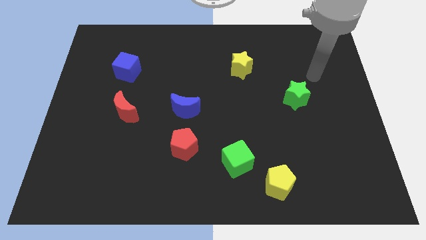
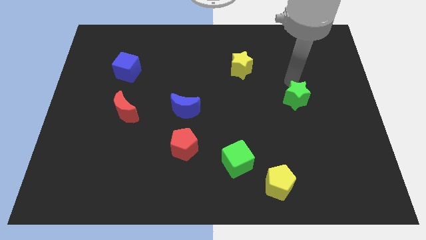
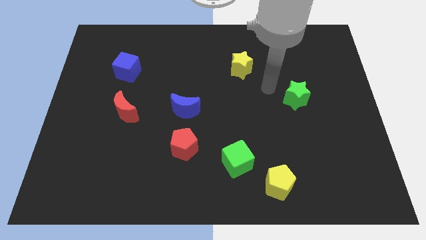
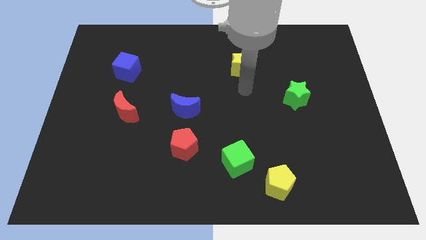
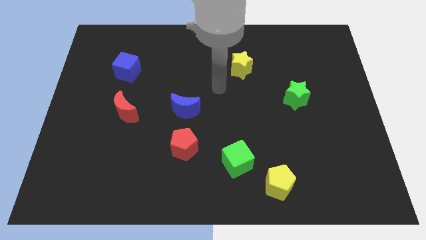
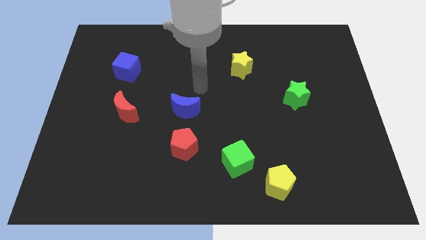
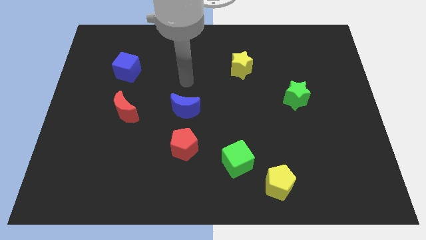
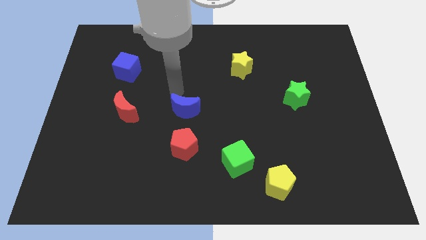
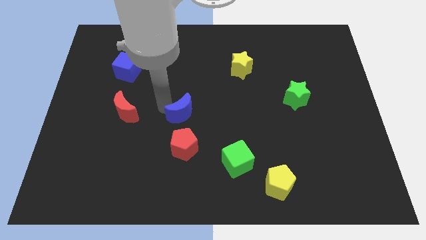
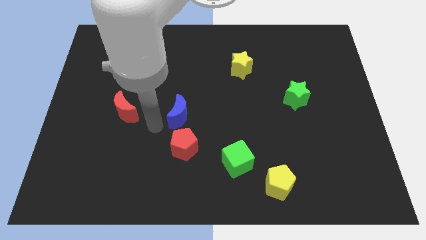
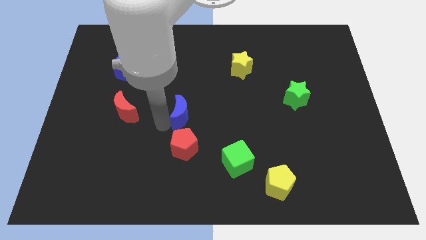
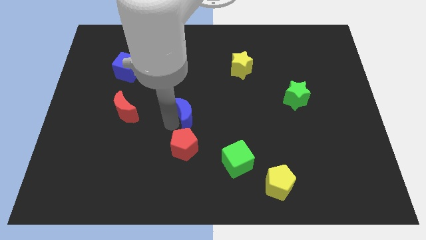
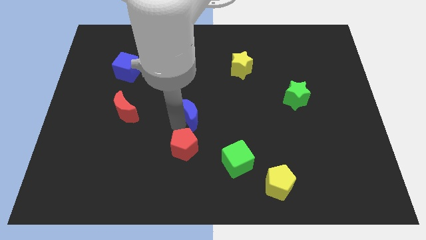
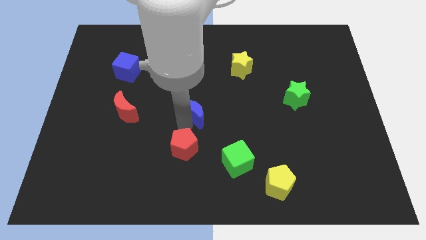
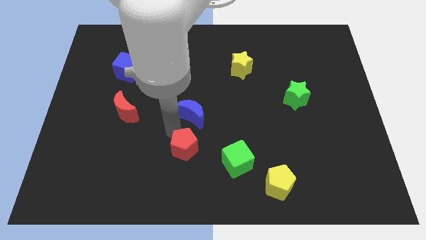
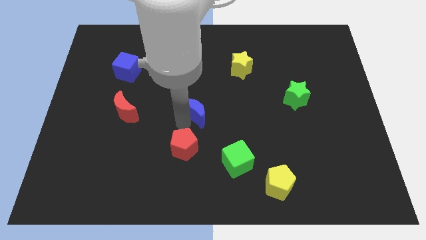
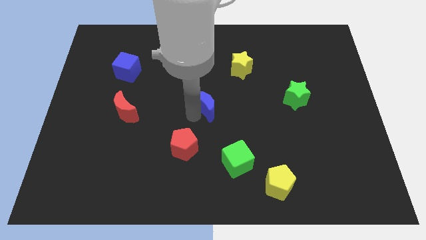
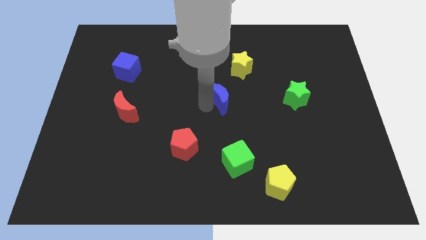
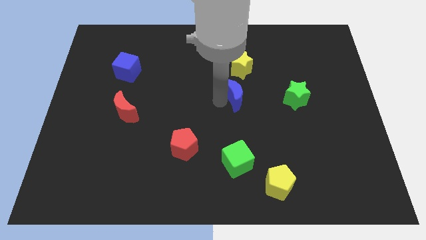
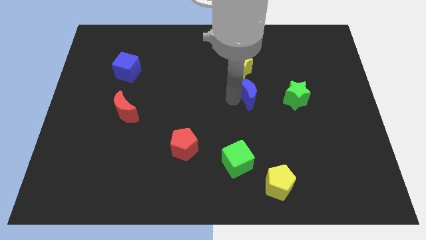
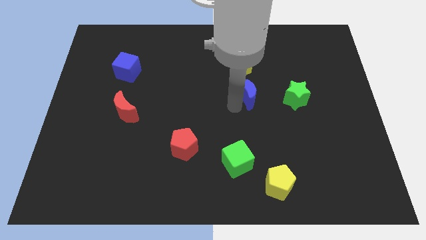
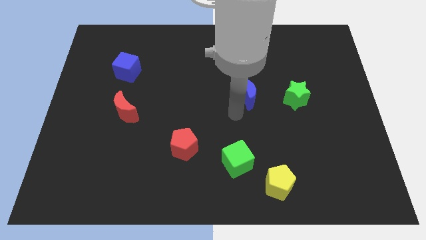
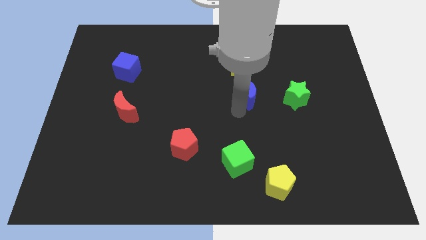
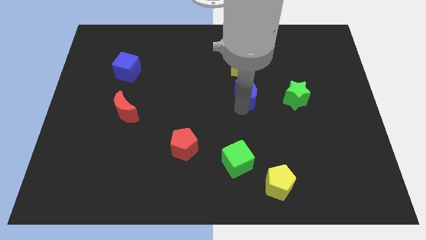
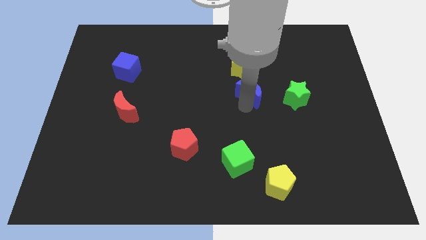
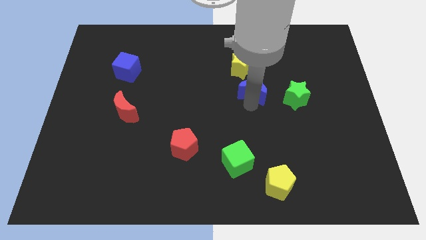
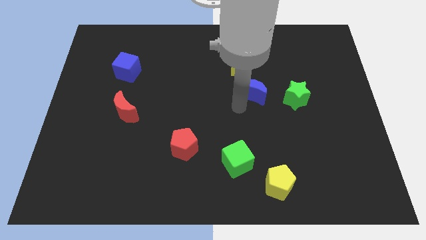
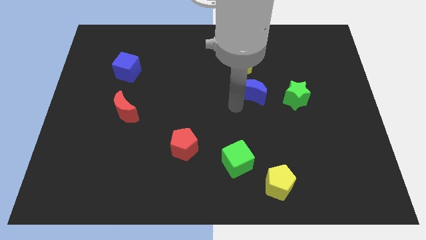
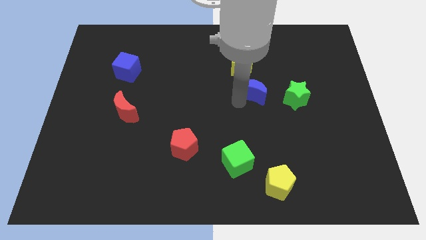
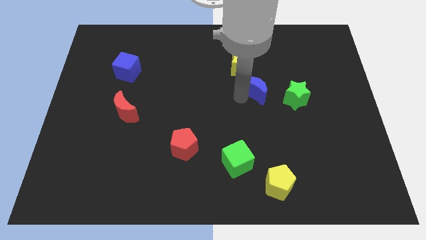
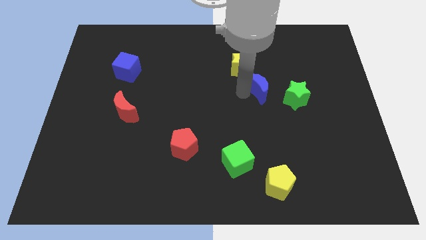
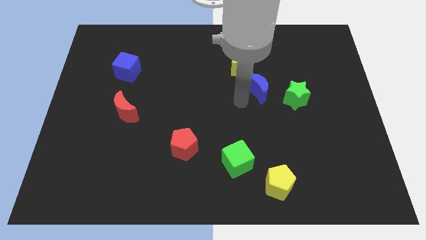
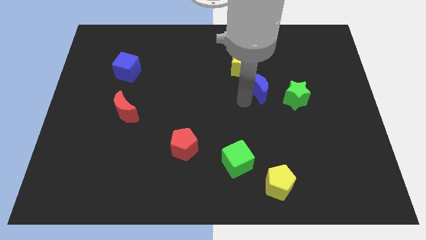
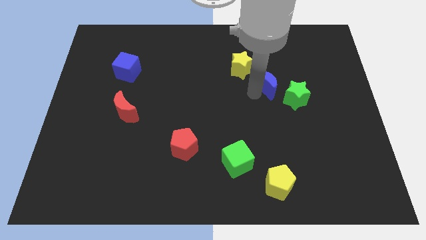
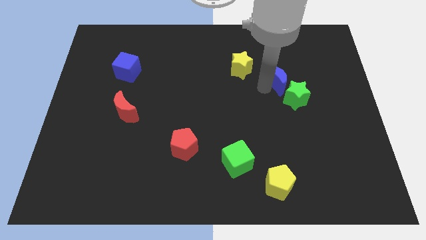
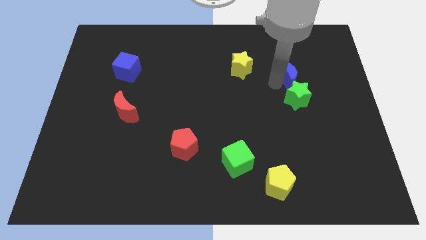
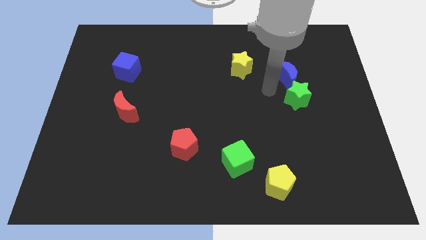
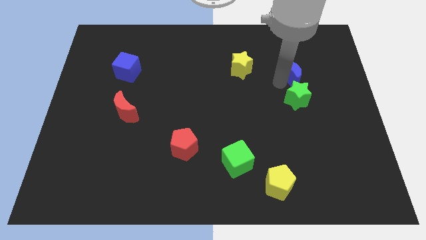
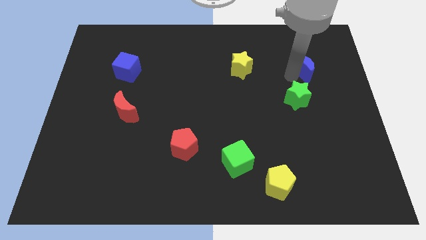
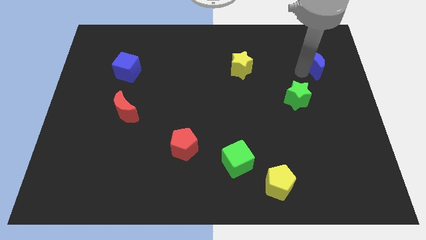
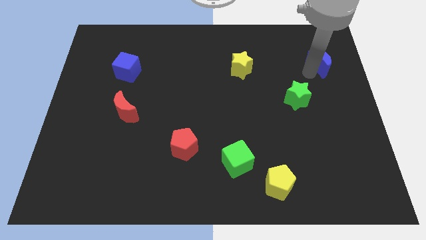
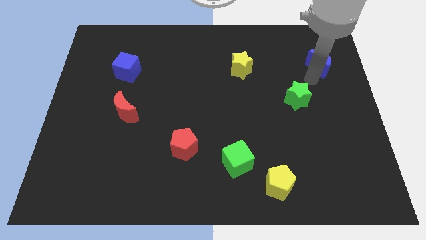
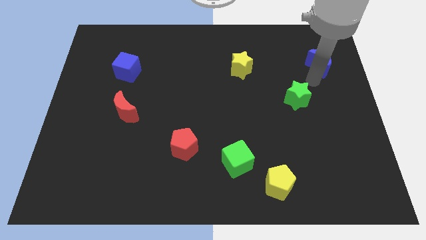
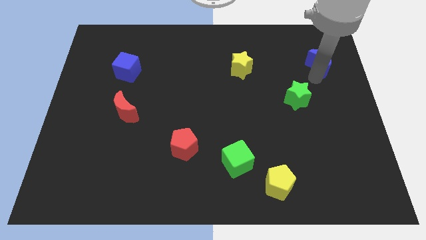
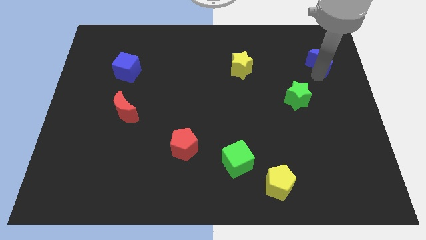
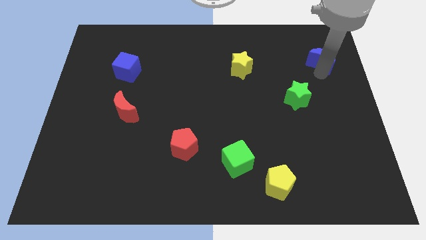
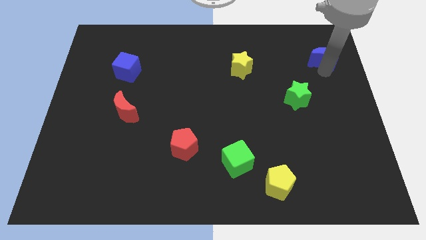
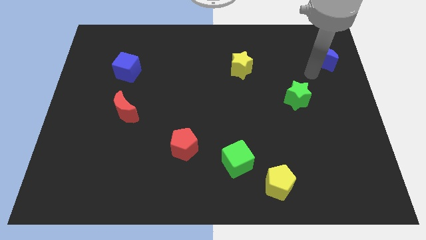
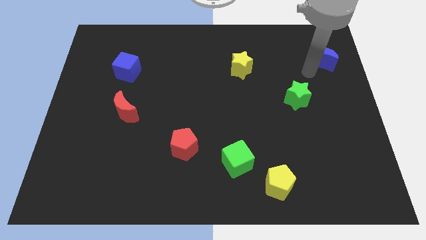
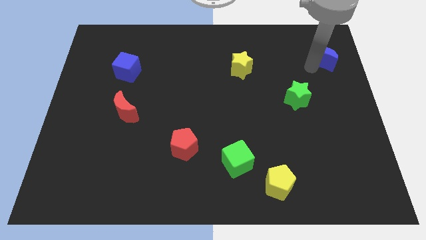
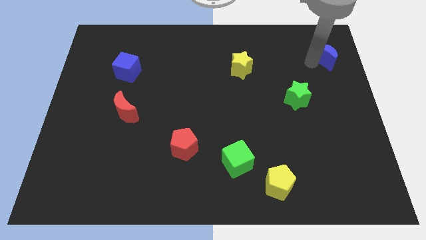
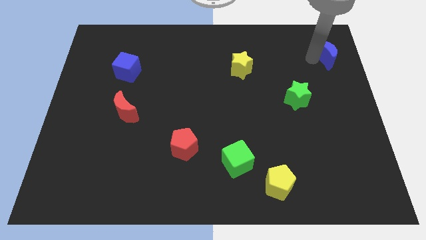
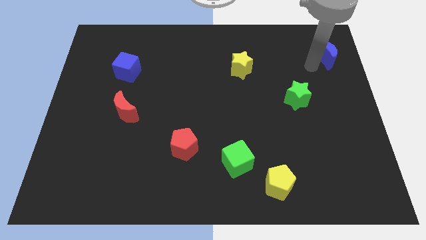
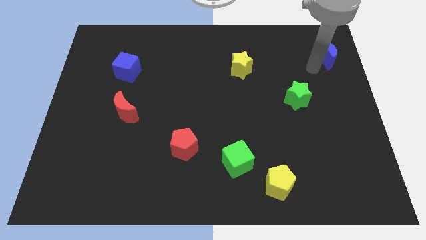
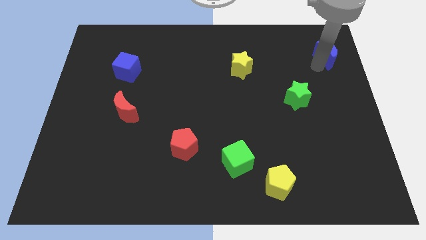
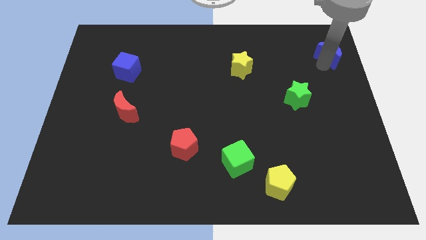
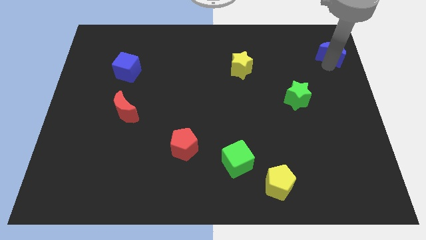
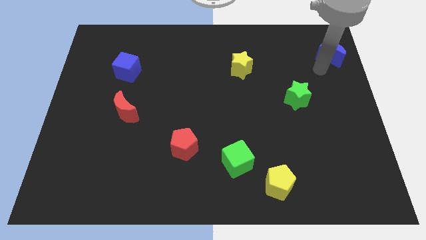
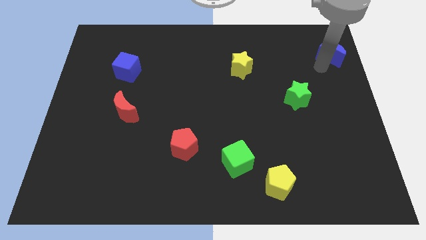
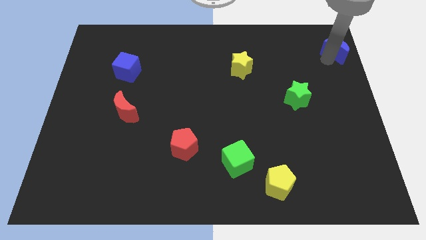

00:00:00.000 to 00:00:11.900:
move the blue moon to the top right corner
